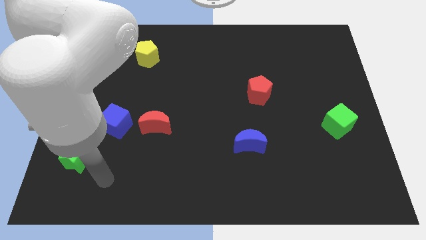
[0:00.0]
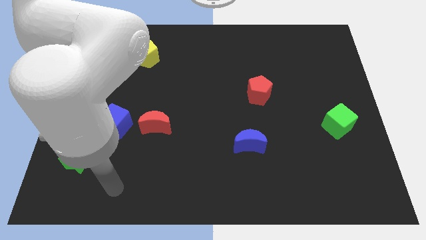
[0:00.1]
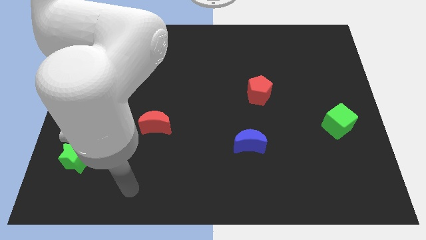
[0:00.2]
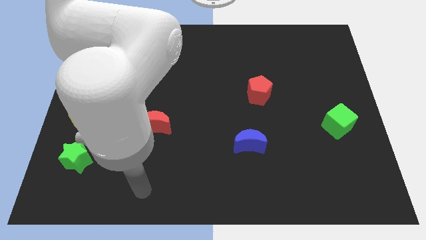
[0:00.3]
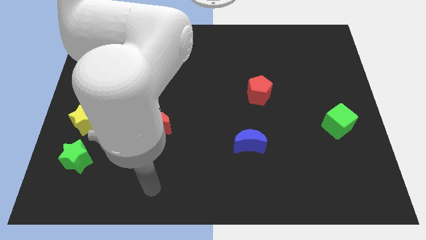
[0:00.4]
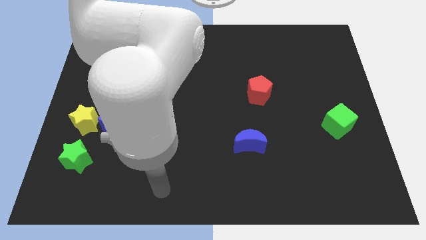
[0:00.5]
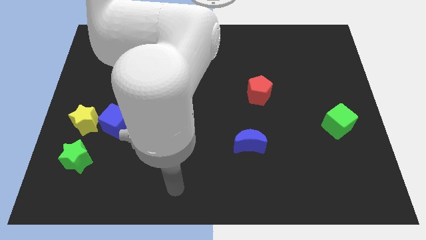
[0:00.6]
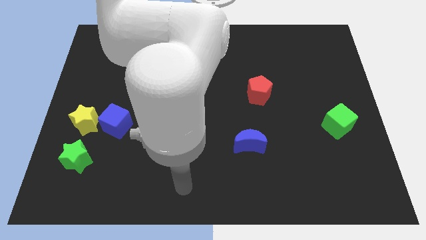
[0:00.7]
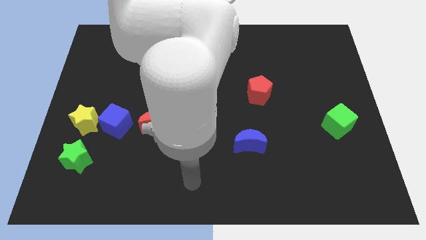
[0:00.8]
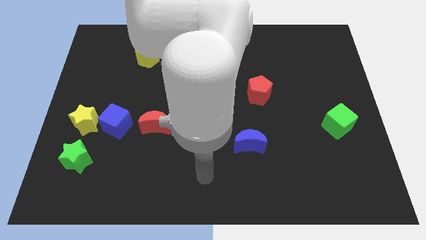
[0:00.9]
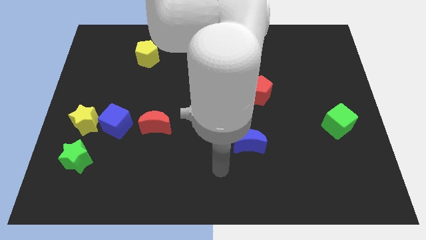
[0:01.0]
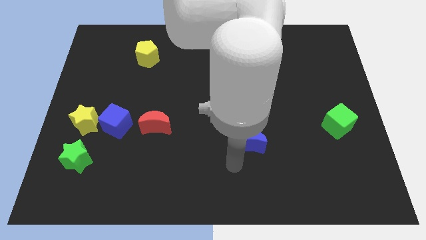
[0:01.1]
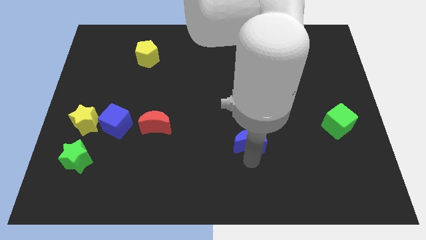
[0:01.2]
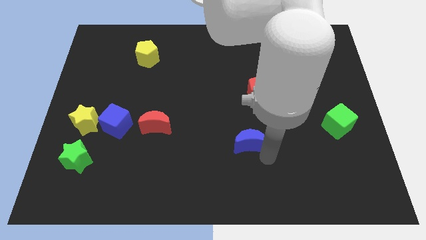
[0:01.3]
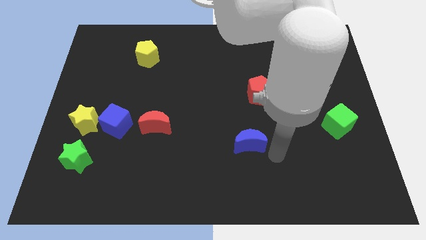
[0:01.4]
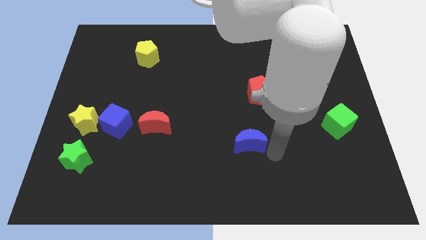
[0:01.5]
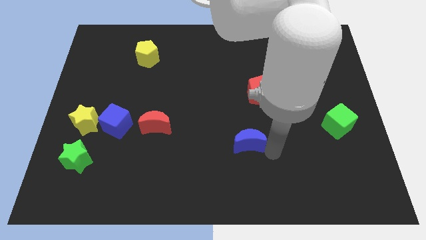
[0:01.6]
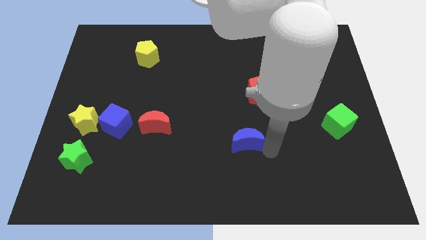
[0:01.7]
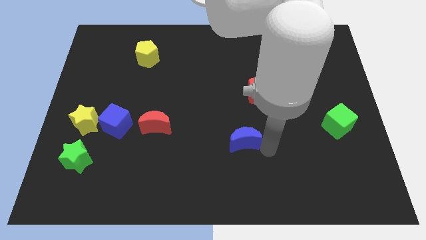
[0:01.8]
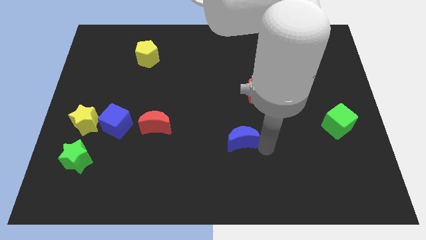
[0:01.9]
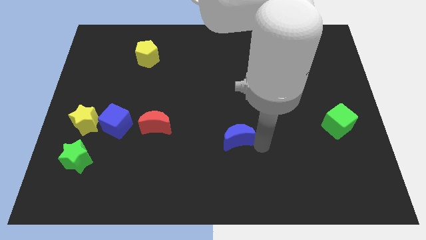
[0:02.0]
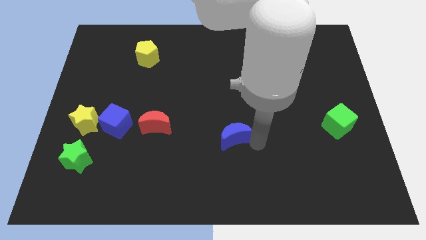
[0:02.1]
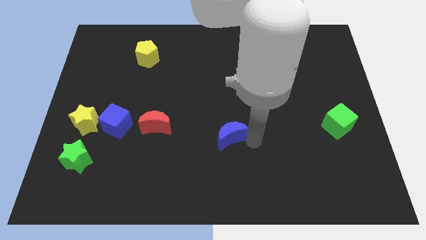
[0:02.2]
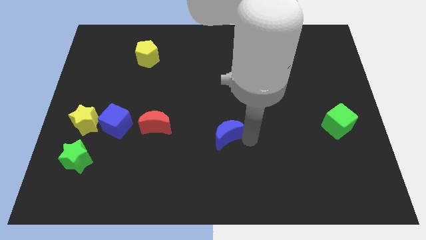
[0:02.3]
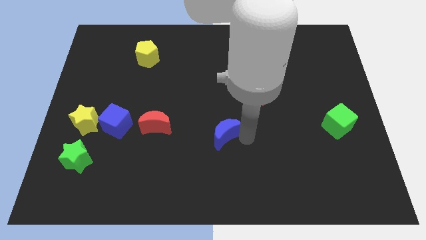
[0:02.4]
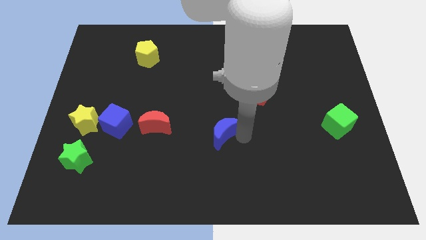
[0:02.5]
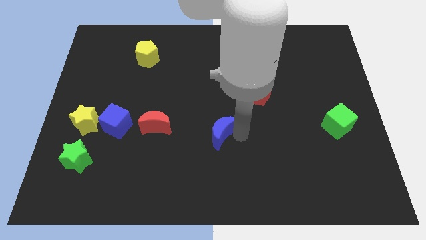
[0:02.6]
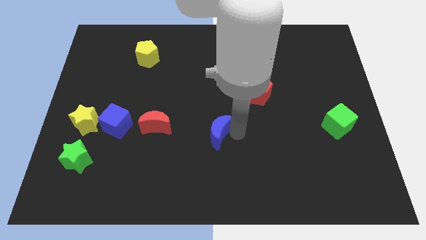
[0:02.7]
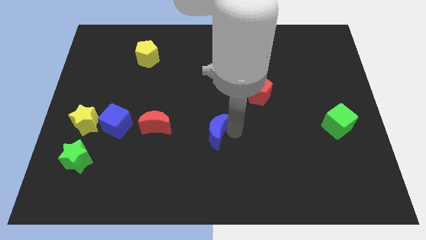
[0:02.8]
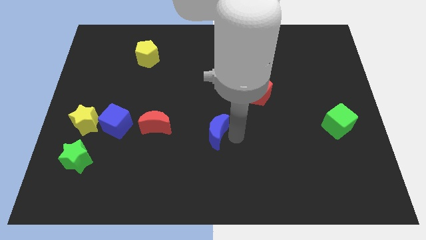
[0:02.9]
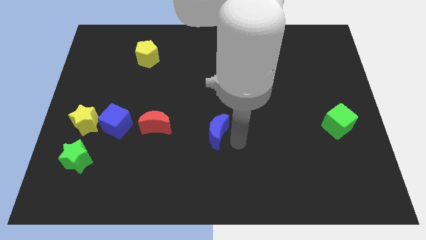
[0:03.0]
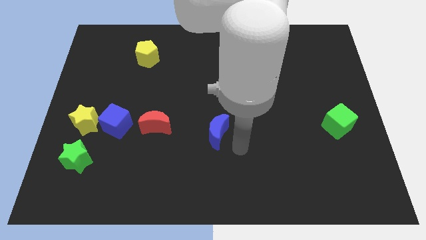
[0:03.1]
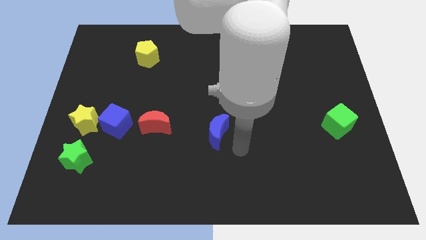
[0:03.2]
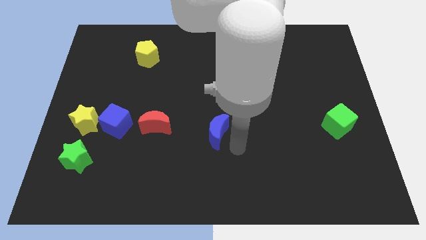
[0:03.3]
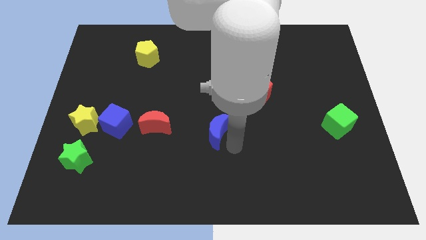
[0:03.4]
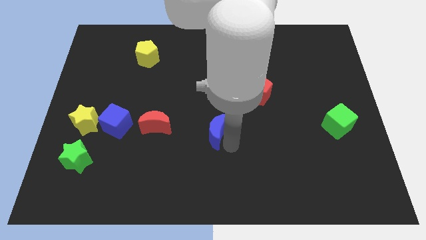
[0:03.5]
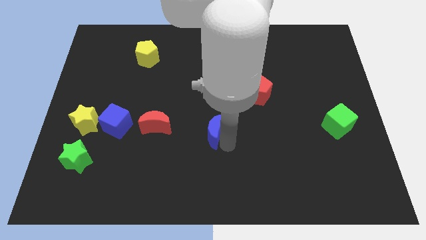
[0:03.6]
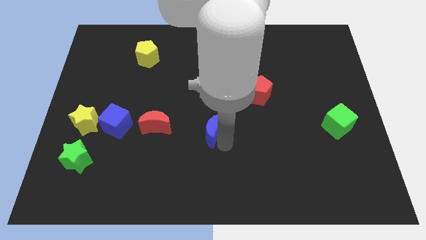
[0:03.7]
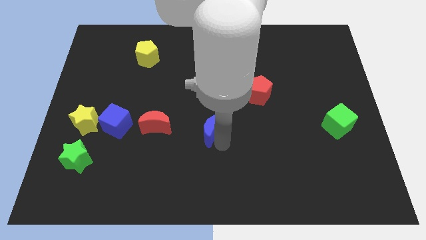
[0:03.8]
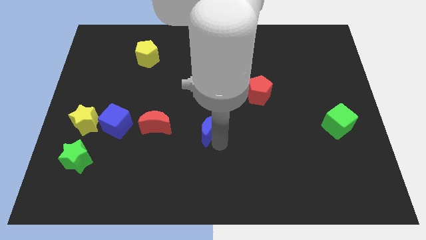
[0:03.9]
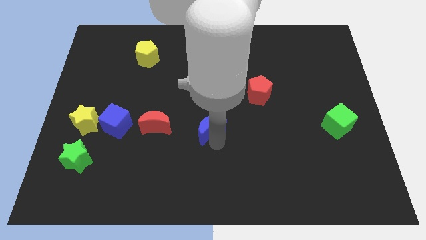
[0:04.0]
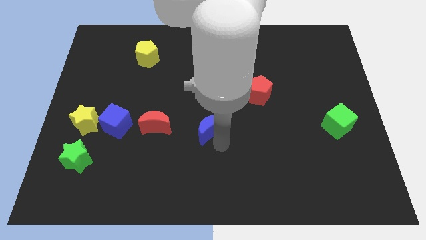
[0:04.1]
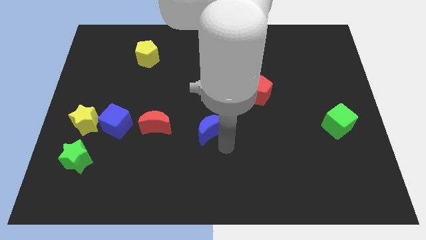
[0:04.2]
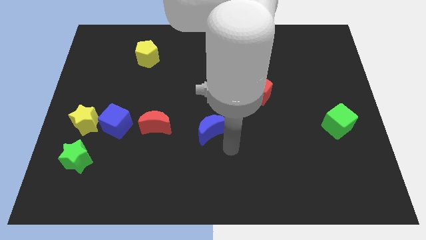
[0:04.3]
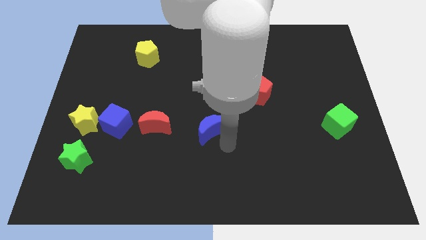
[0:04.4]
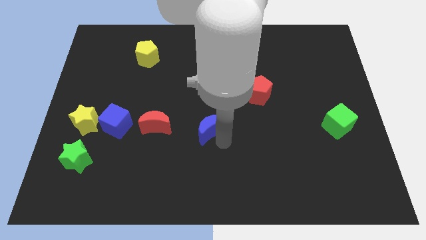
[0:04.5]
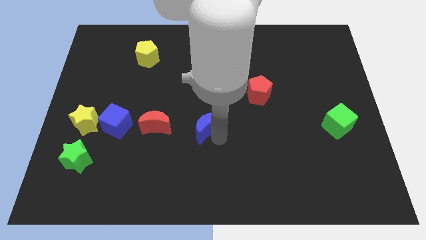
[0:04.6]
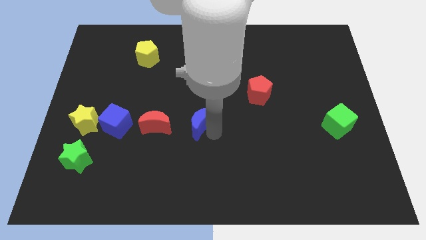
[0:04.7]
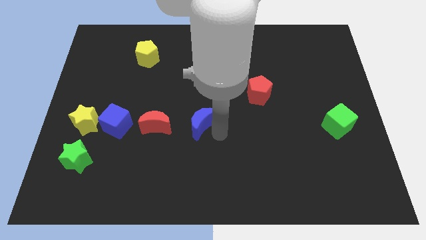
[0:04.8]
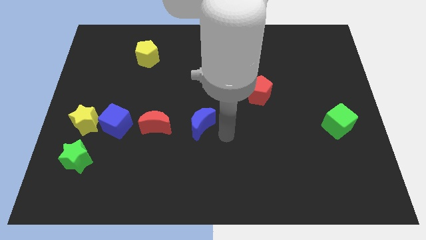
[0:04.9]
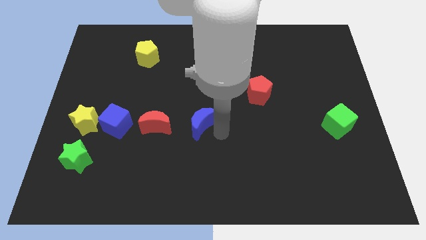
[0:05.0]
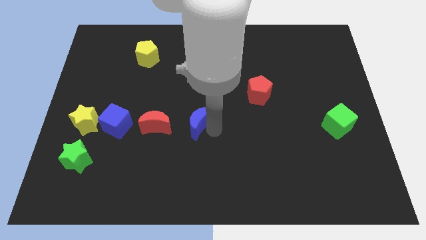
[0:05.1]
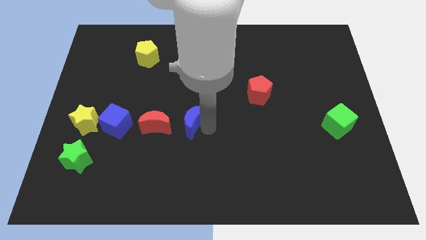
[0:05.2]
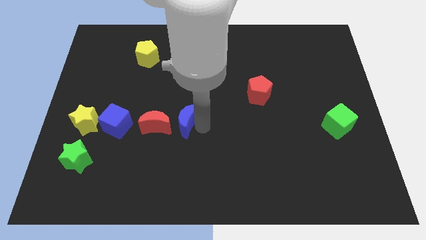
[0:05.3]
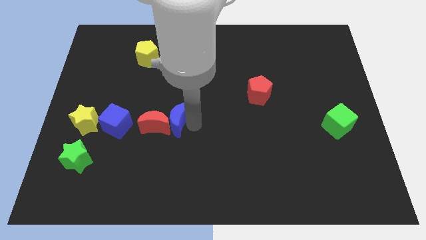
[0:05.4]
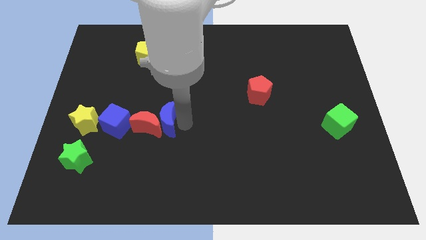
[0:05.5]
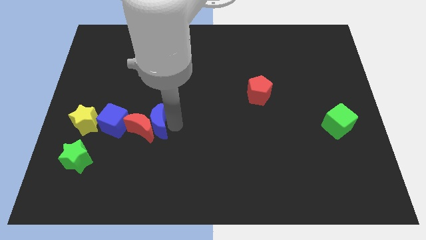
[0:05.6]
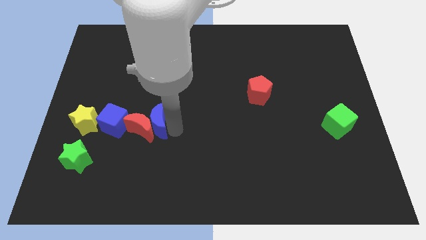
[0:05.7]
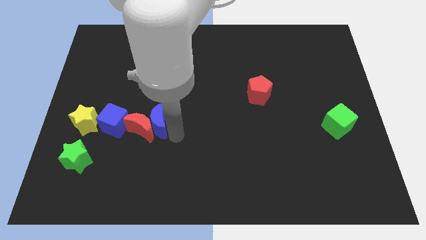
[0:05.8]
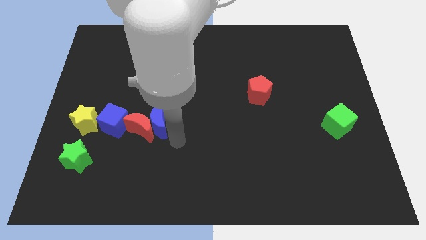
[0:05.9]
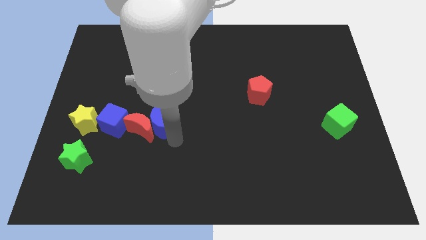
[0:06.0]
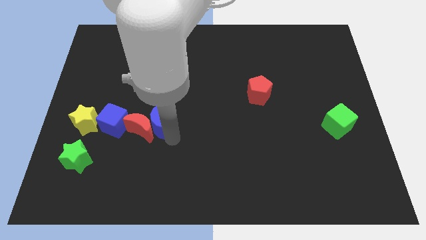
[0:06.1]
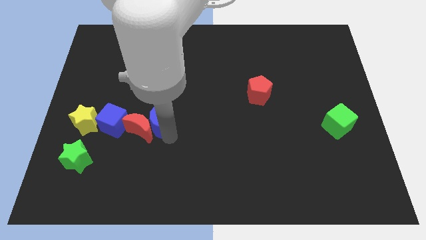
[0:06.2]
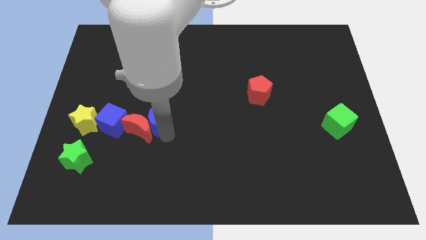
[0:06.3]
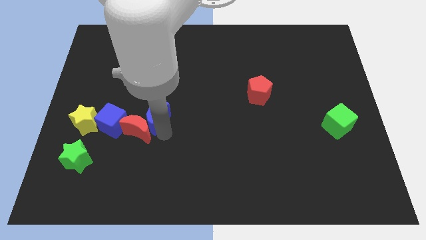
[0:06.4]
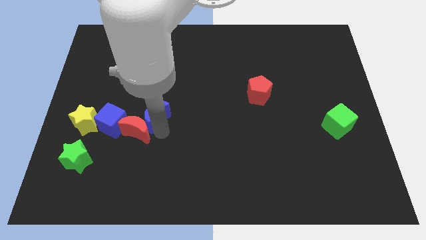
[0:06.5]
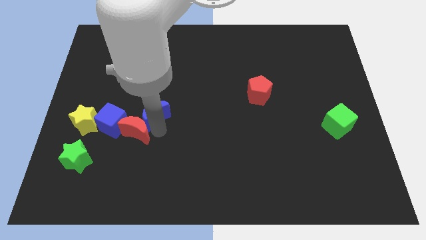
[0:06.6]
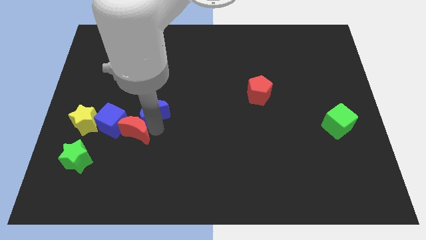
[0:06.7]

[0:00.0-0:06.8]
push the blue moon to the top right of the blue cube

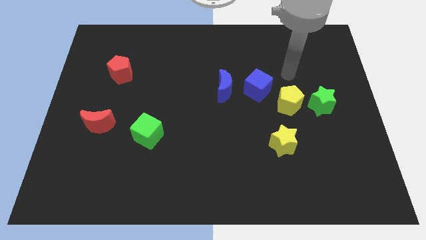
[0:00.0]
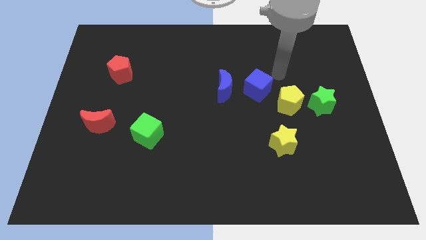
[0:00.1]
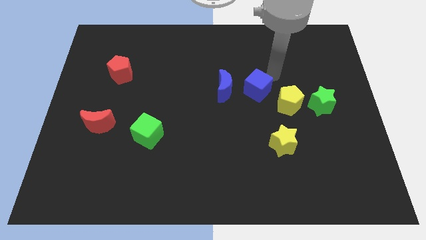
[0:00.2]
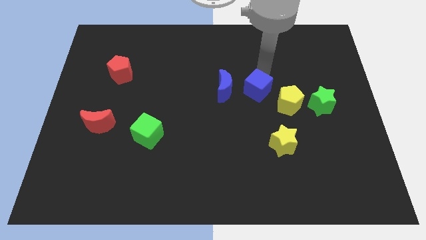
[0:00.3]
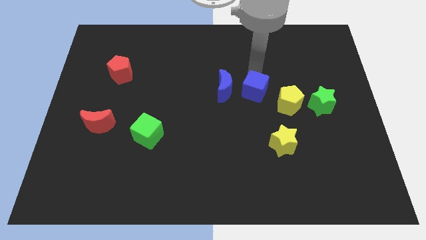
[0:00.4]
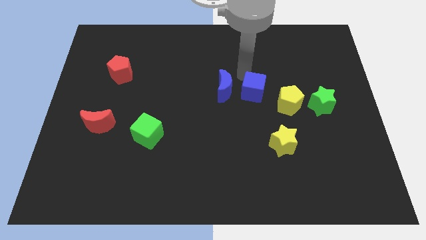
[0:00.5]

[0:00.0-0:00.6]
push the blue moon to the bottom left side of the blue cube
